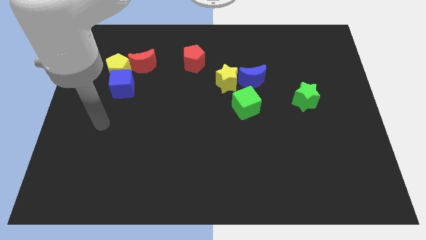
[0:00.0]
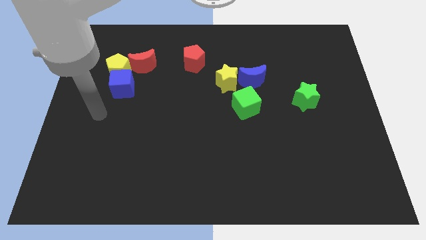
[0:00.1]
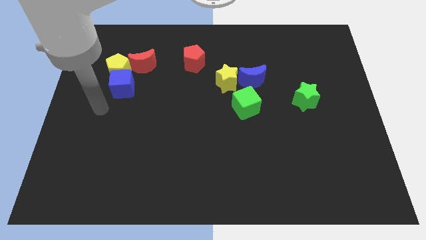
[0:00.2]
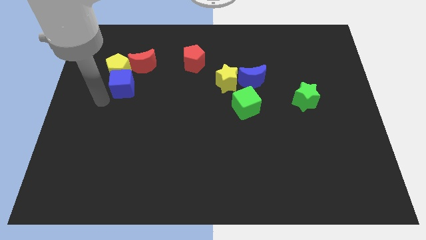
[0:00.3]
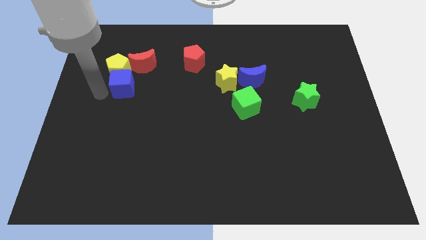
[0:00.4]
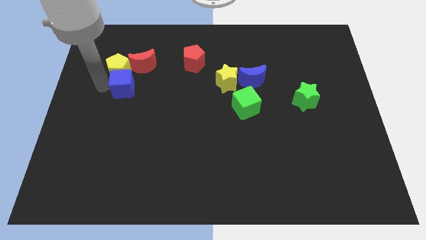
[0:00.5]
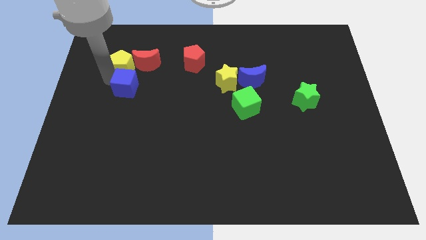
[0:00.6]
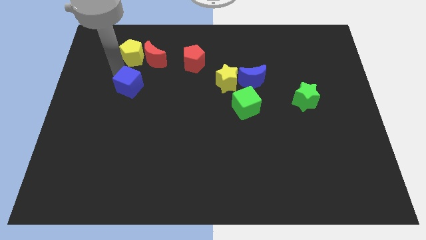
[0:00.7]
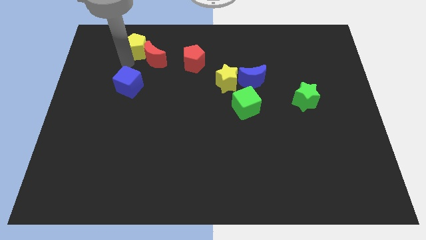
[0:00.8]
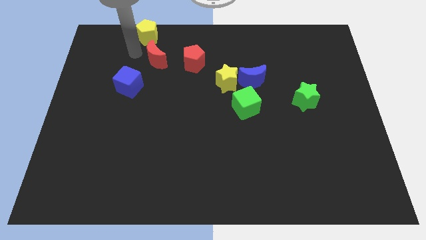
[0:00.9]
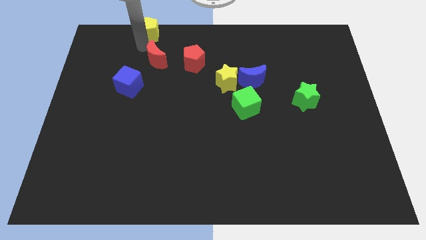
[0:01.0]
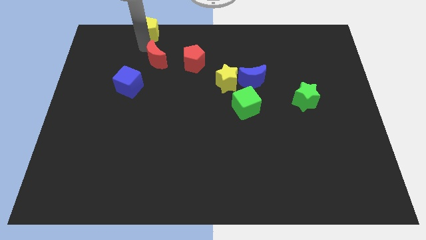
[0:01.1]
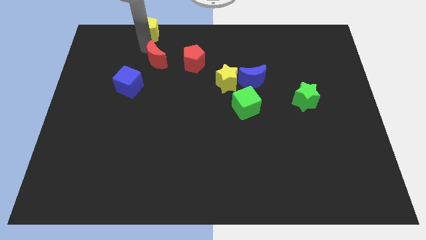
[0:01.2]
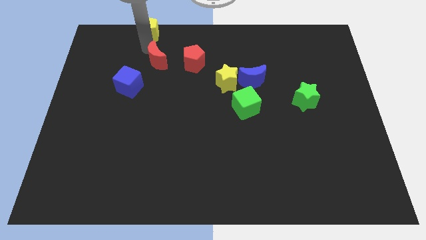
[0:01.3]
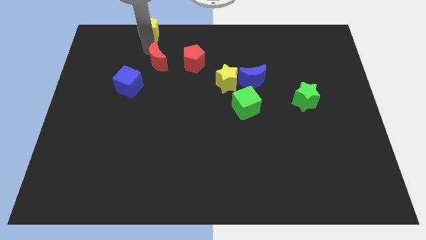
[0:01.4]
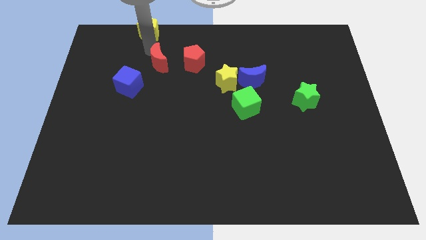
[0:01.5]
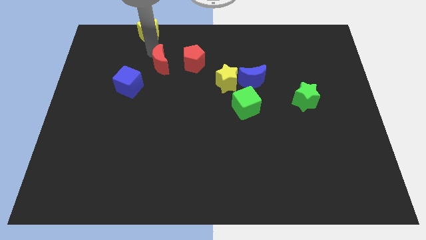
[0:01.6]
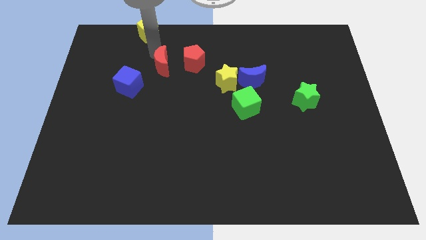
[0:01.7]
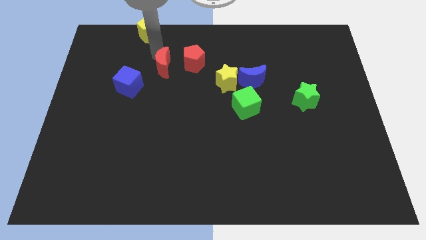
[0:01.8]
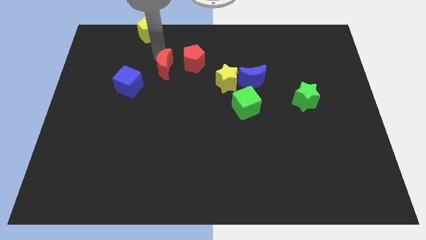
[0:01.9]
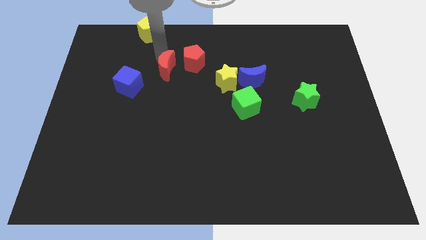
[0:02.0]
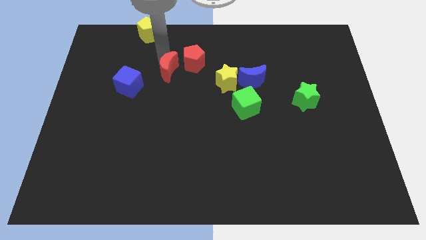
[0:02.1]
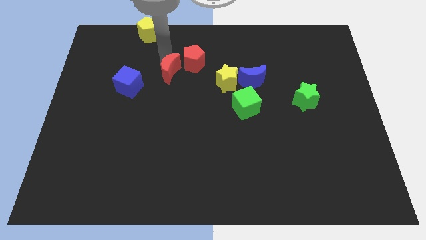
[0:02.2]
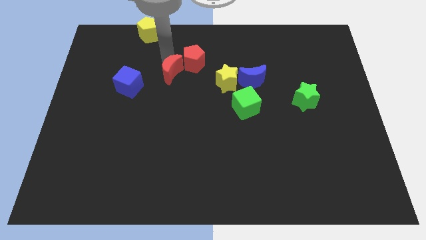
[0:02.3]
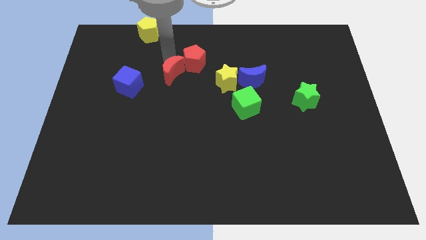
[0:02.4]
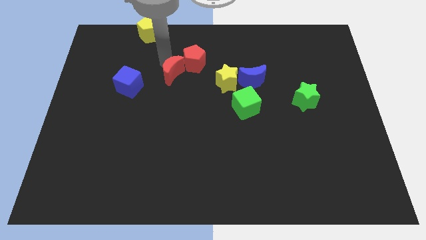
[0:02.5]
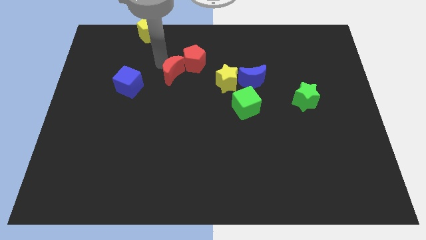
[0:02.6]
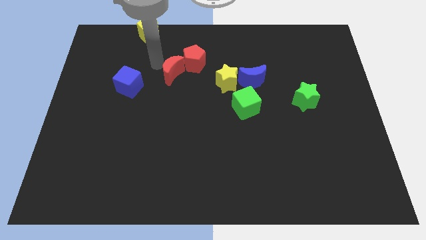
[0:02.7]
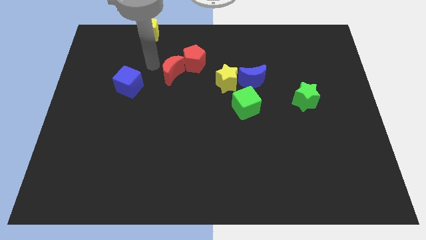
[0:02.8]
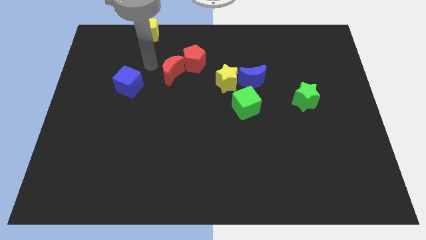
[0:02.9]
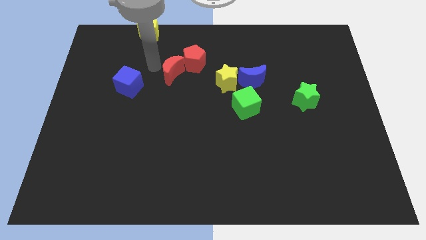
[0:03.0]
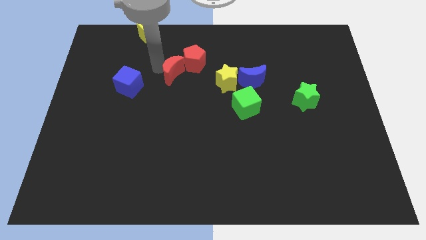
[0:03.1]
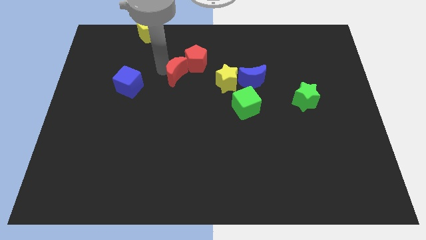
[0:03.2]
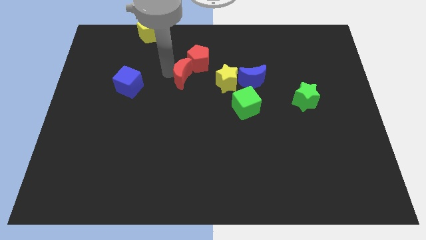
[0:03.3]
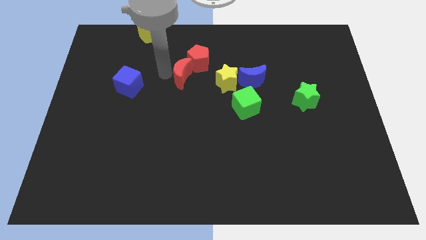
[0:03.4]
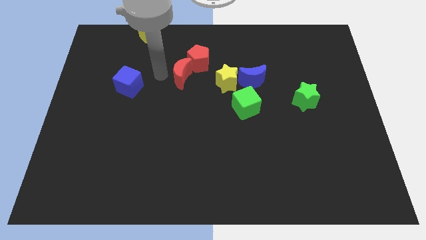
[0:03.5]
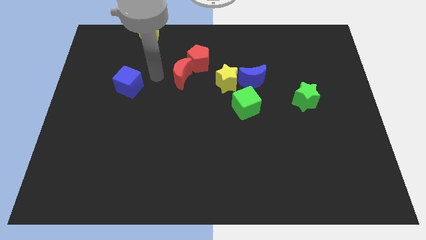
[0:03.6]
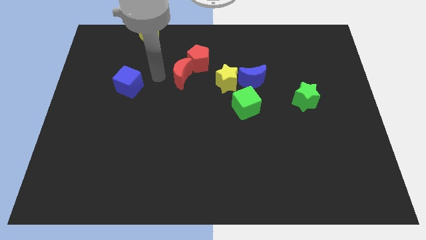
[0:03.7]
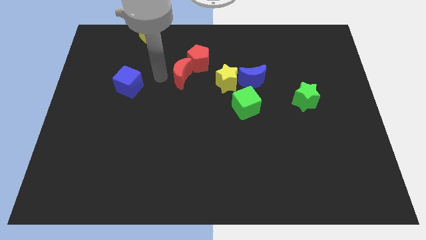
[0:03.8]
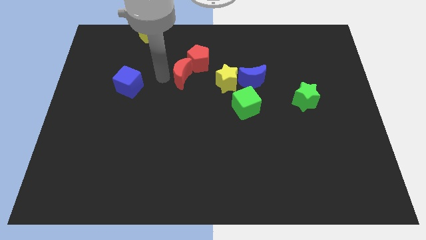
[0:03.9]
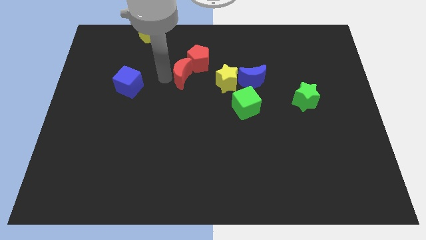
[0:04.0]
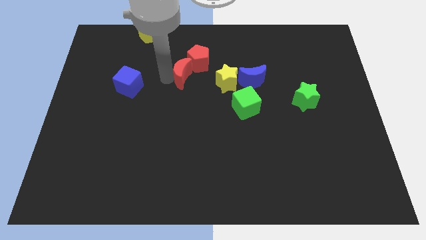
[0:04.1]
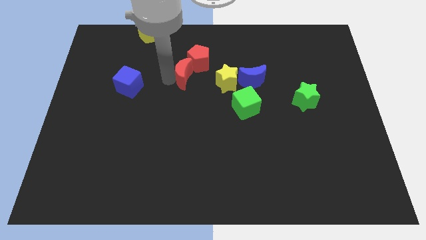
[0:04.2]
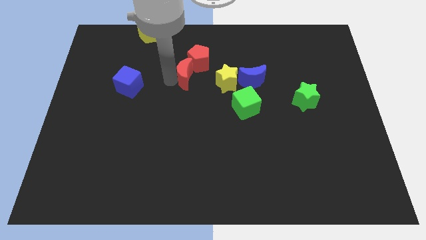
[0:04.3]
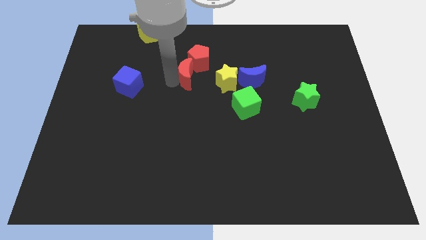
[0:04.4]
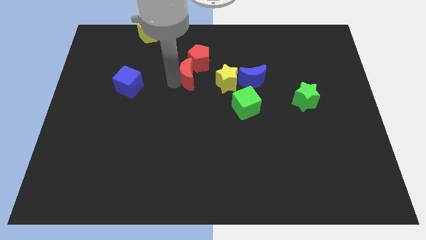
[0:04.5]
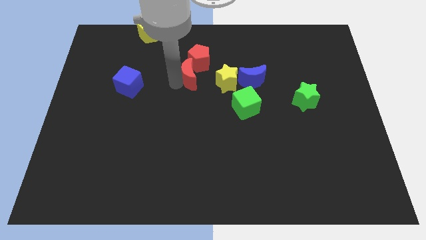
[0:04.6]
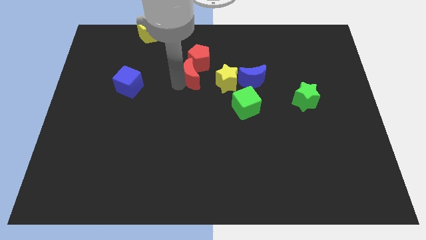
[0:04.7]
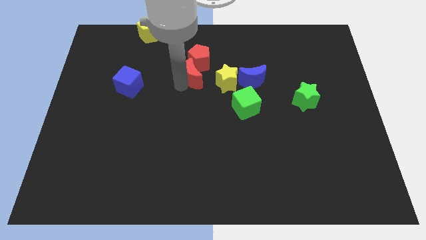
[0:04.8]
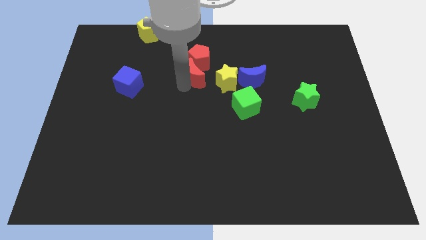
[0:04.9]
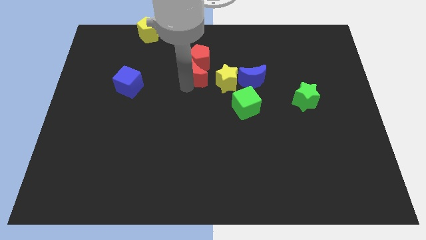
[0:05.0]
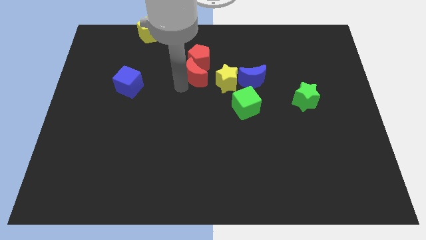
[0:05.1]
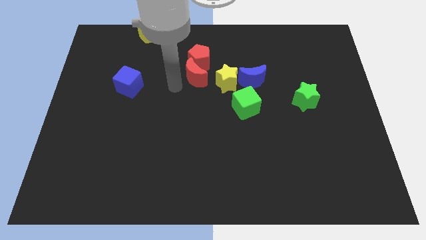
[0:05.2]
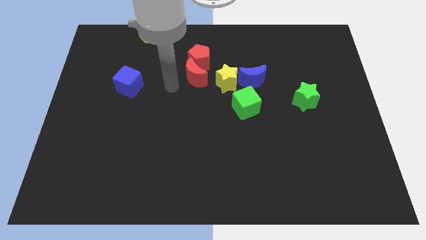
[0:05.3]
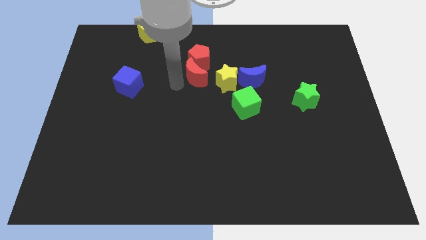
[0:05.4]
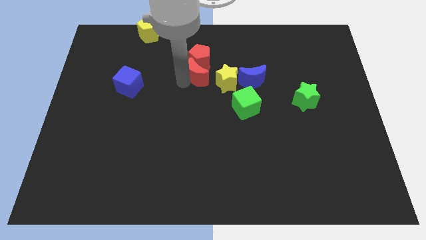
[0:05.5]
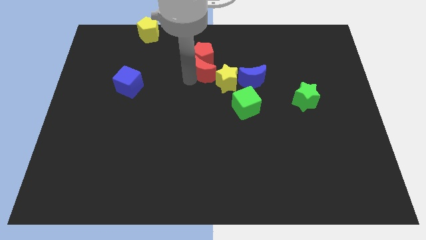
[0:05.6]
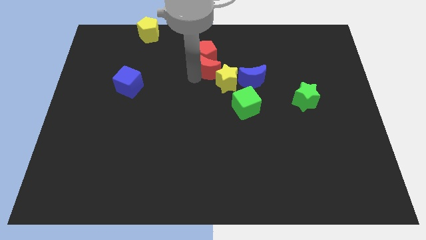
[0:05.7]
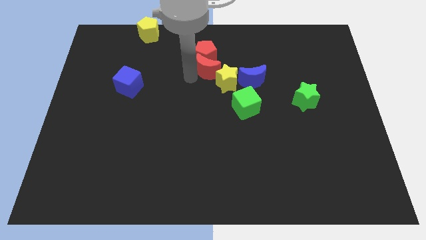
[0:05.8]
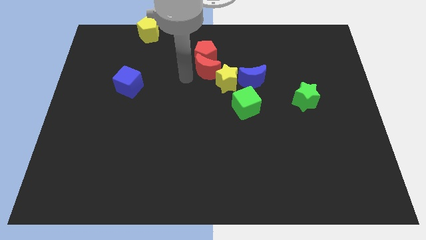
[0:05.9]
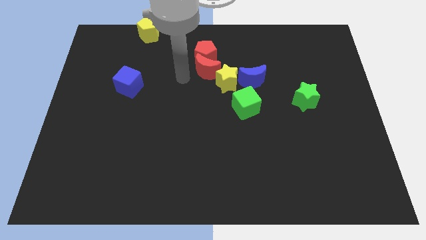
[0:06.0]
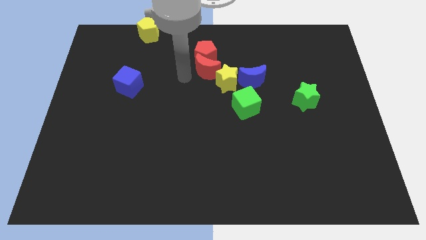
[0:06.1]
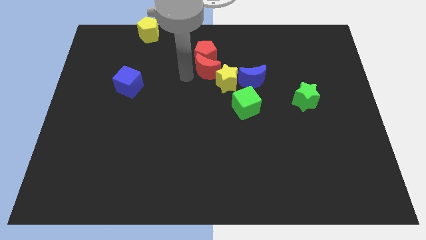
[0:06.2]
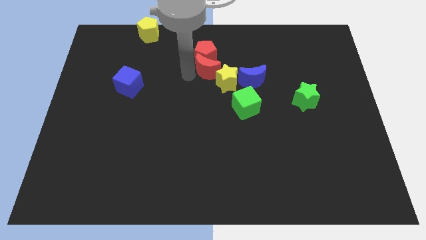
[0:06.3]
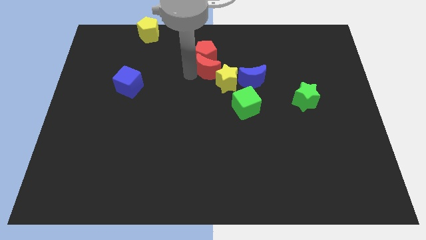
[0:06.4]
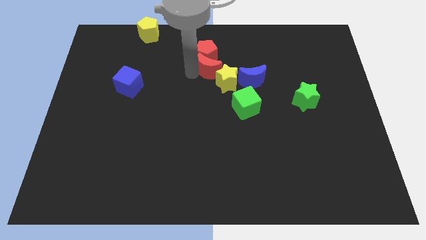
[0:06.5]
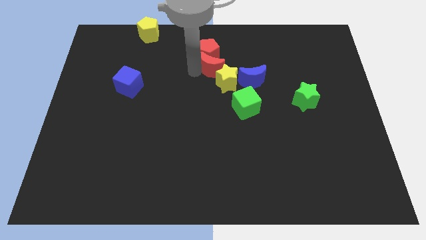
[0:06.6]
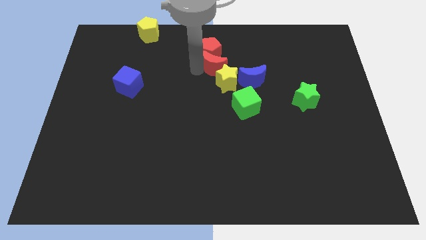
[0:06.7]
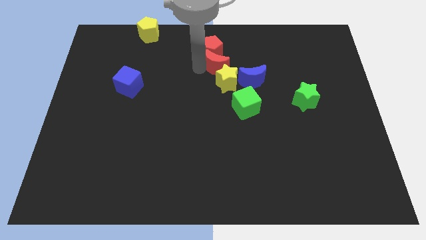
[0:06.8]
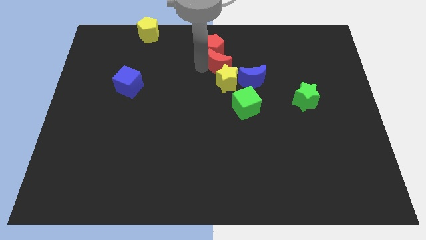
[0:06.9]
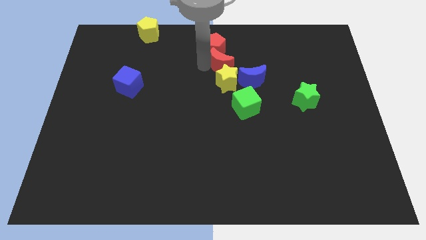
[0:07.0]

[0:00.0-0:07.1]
push the red moon to the right

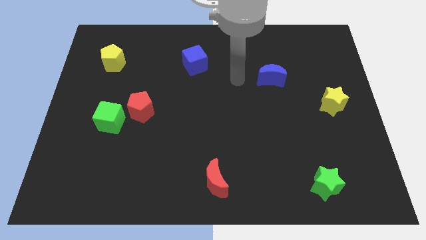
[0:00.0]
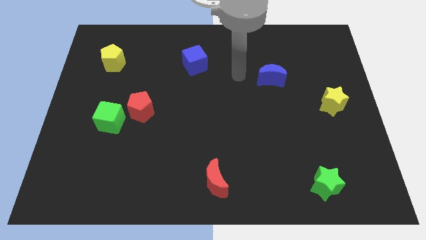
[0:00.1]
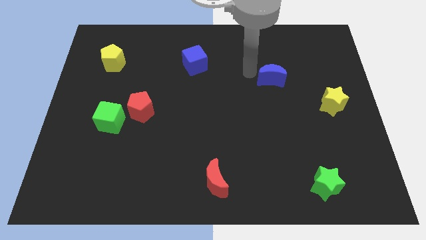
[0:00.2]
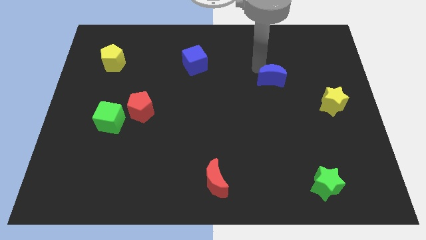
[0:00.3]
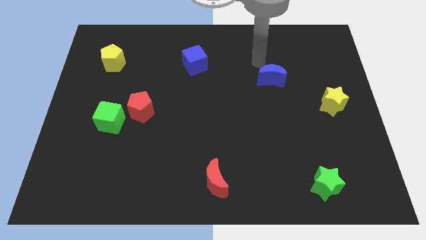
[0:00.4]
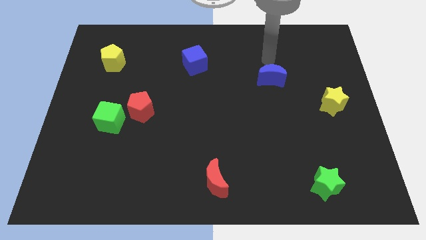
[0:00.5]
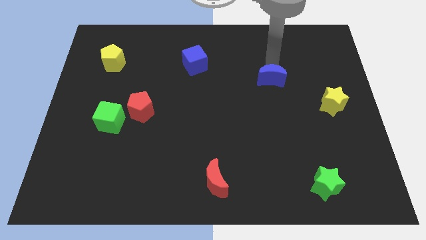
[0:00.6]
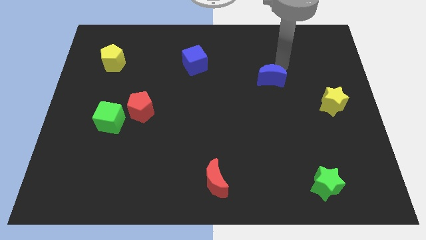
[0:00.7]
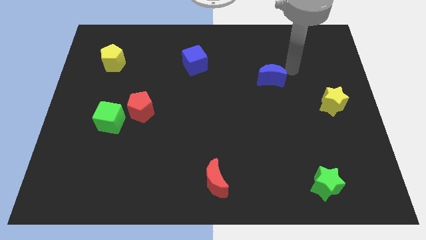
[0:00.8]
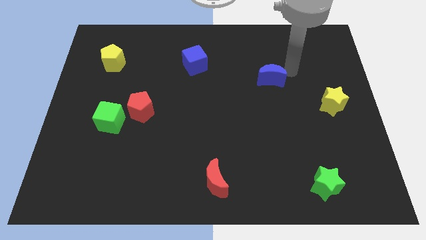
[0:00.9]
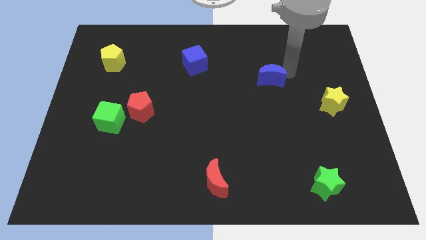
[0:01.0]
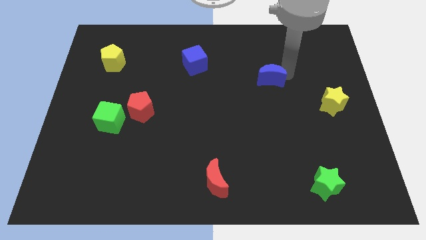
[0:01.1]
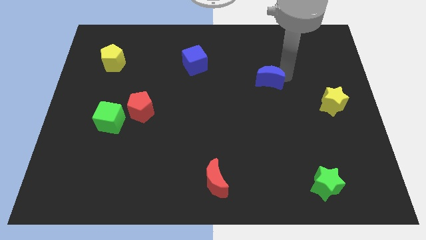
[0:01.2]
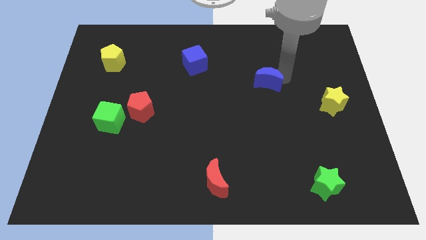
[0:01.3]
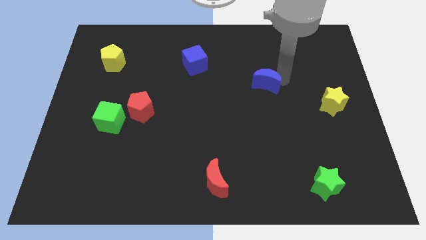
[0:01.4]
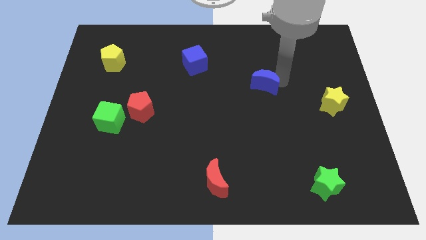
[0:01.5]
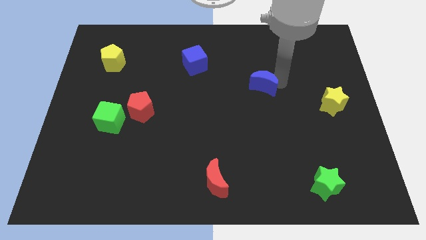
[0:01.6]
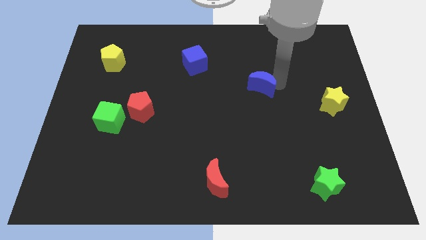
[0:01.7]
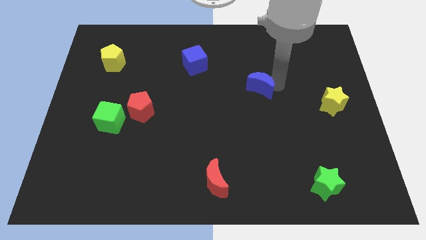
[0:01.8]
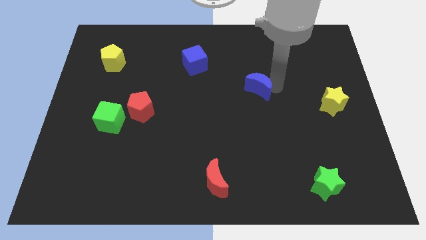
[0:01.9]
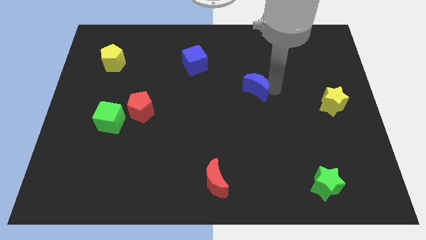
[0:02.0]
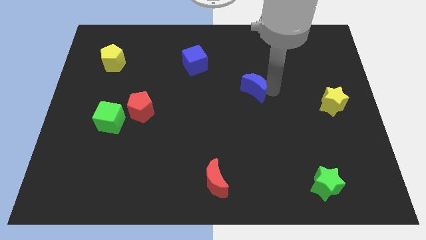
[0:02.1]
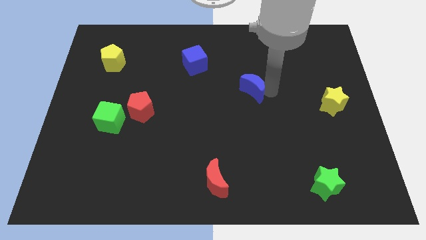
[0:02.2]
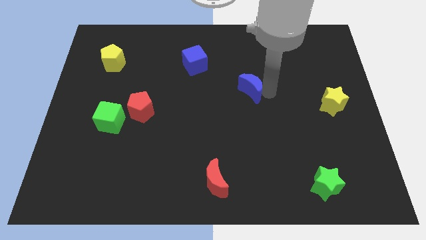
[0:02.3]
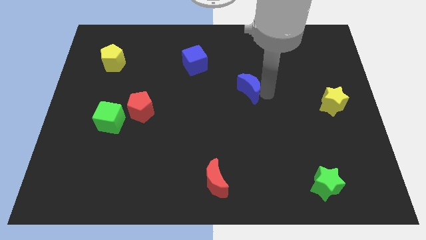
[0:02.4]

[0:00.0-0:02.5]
slide the blue moon down and left slightly
